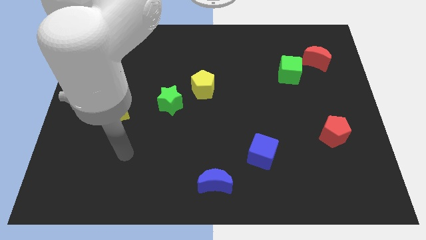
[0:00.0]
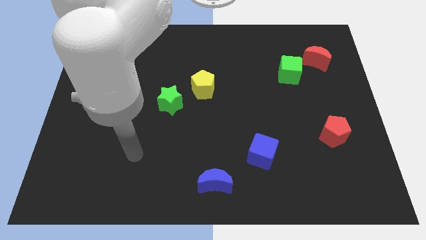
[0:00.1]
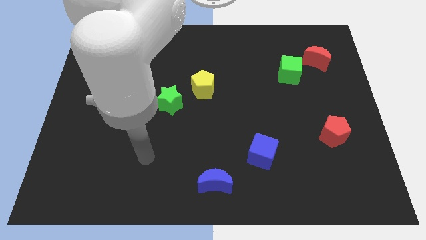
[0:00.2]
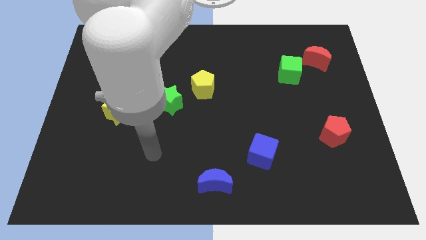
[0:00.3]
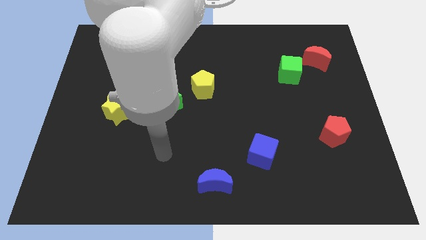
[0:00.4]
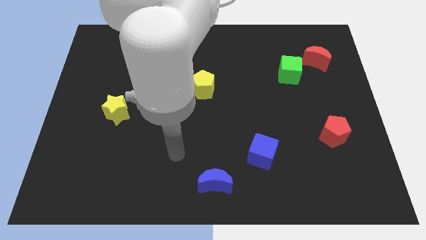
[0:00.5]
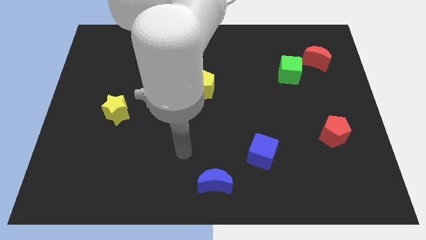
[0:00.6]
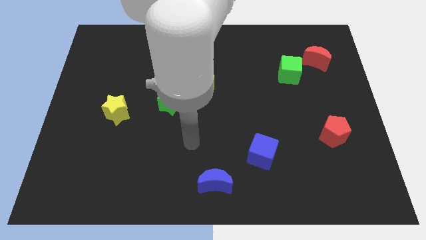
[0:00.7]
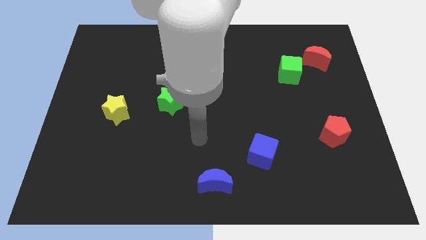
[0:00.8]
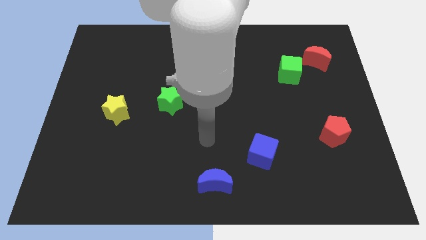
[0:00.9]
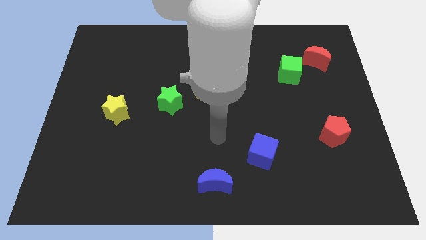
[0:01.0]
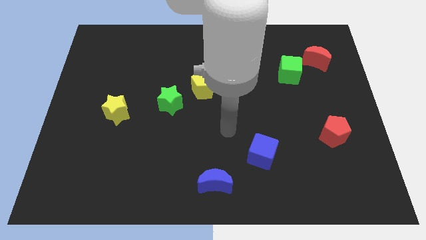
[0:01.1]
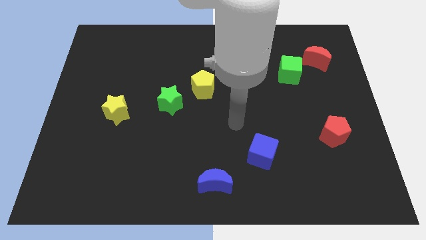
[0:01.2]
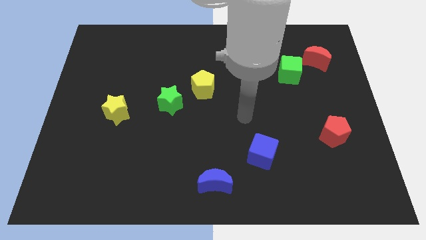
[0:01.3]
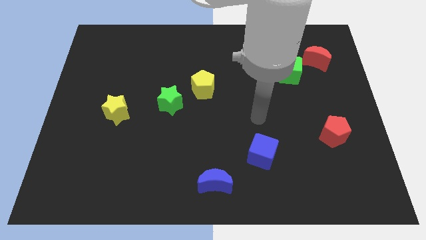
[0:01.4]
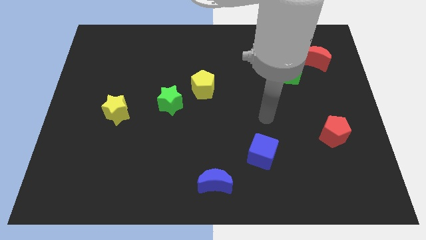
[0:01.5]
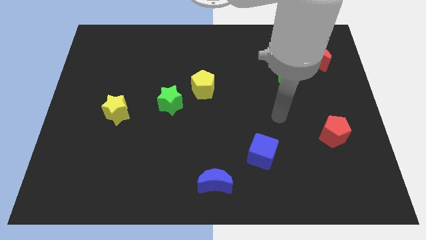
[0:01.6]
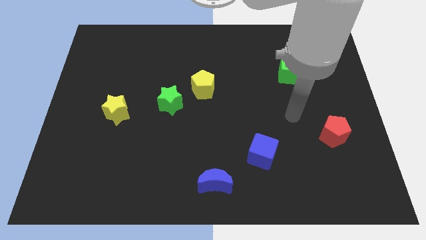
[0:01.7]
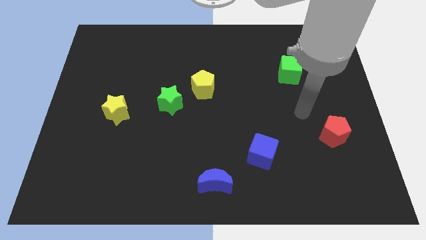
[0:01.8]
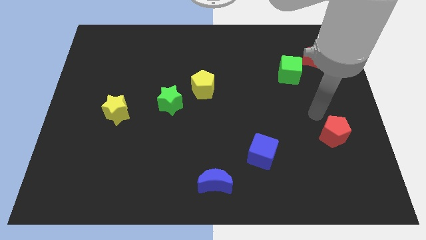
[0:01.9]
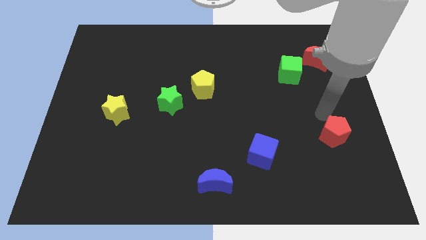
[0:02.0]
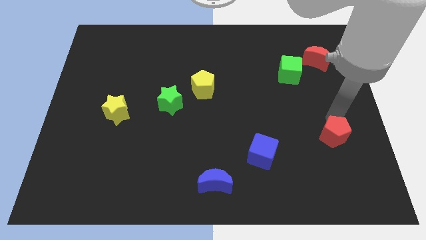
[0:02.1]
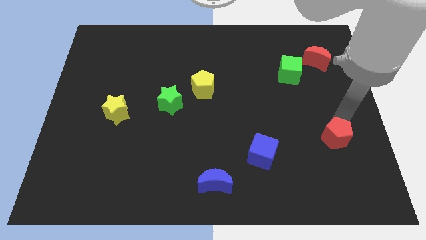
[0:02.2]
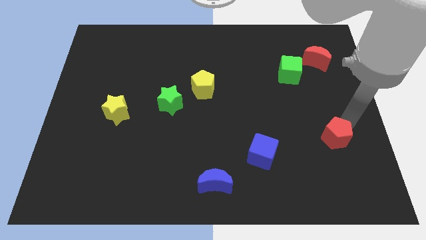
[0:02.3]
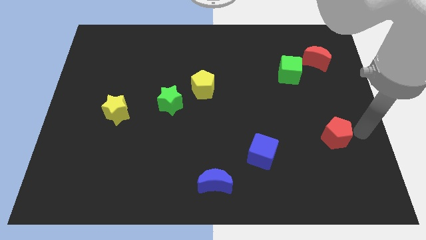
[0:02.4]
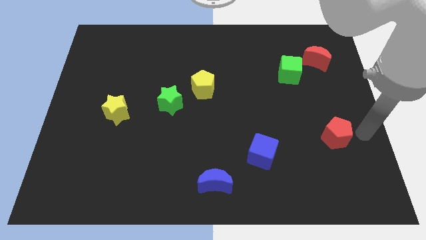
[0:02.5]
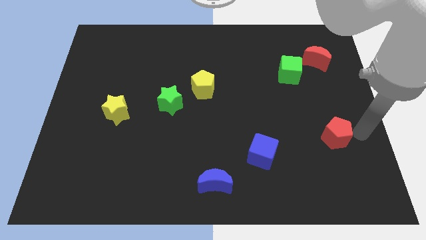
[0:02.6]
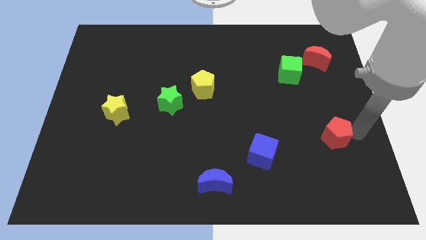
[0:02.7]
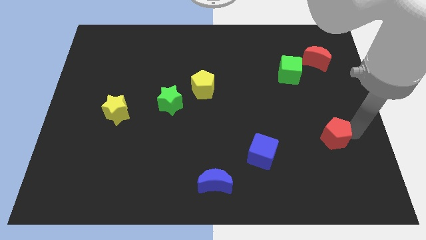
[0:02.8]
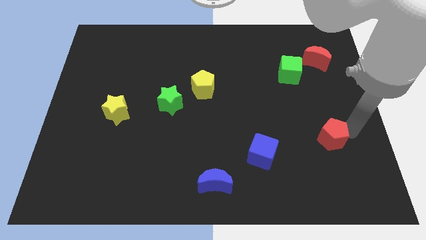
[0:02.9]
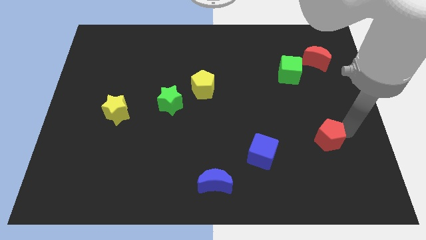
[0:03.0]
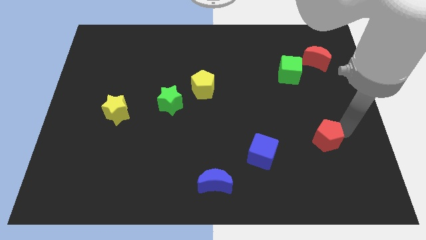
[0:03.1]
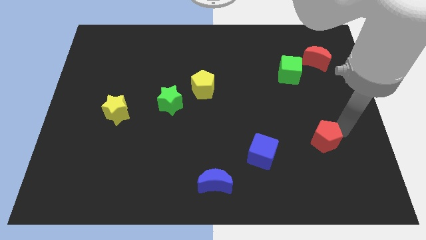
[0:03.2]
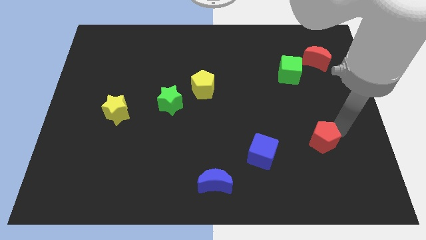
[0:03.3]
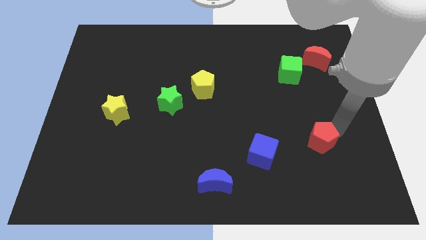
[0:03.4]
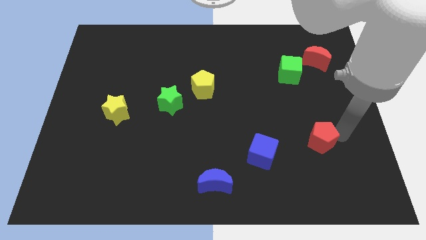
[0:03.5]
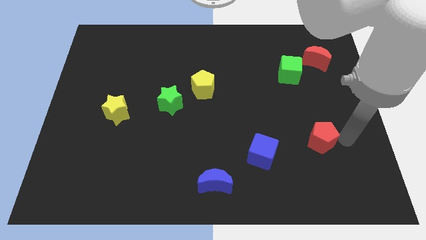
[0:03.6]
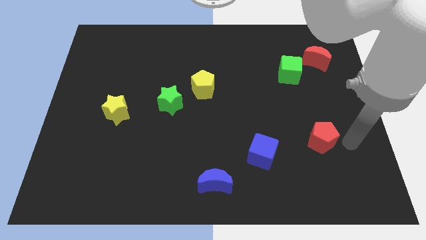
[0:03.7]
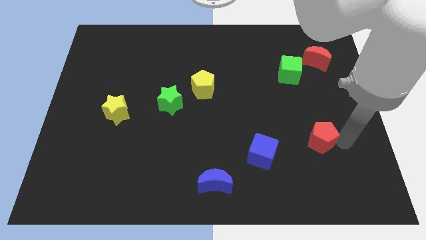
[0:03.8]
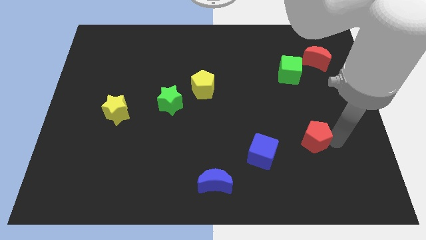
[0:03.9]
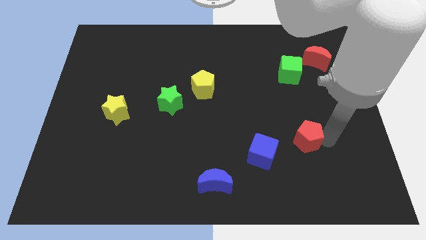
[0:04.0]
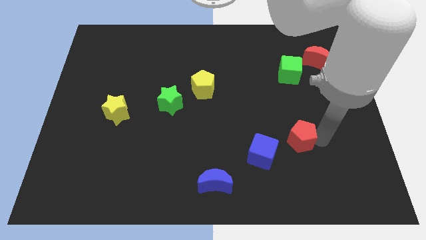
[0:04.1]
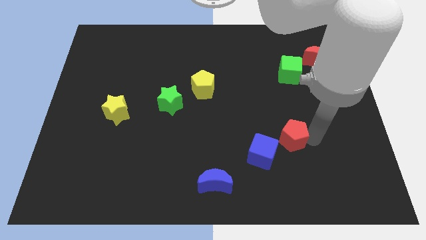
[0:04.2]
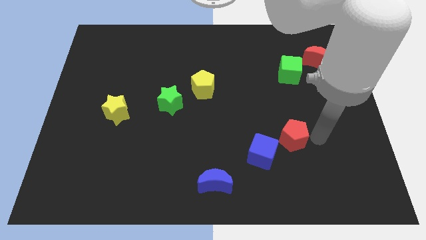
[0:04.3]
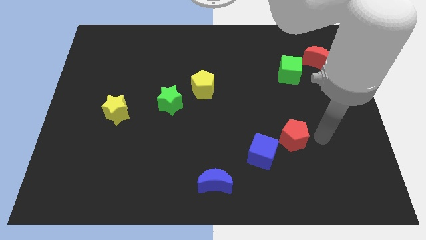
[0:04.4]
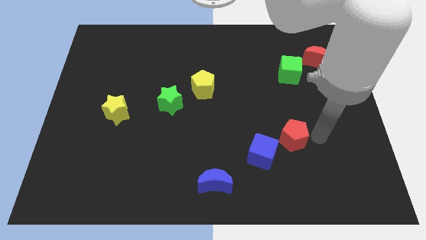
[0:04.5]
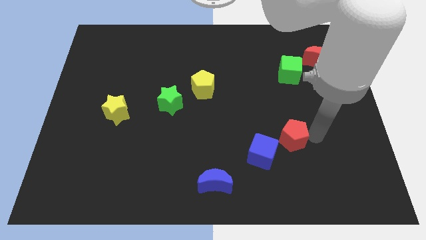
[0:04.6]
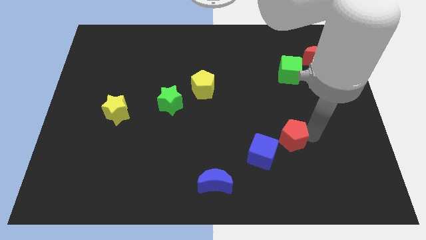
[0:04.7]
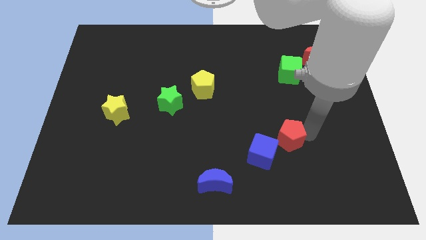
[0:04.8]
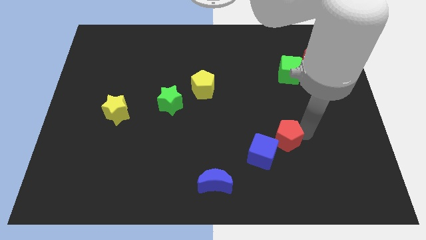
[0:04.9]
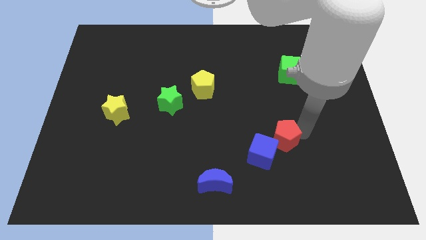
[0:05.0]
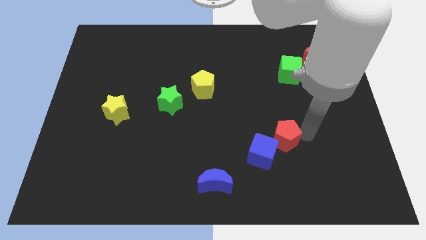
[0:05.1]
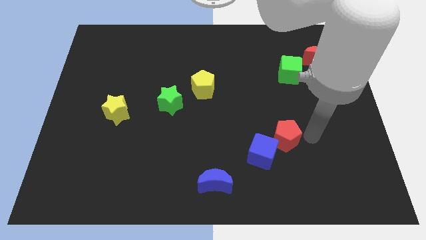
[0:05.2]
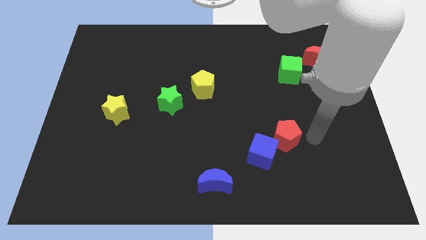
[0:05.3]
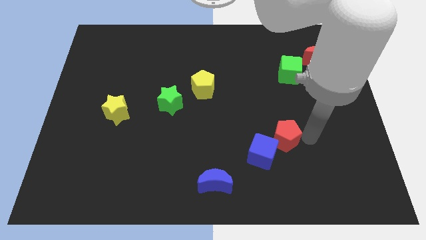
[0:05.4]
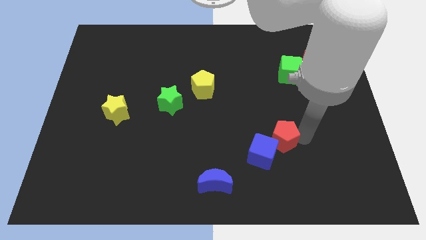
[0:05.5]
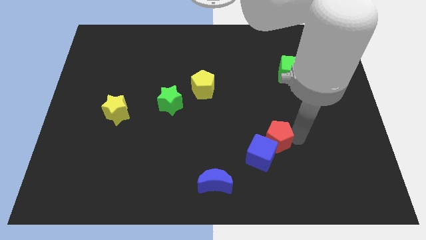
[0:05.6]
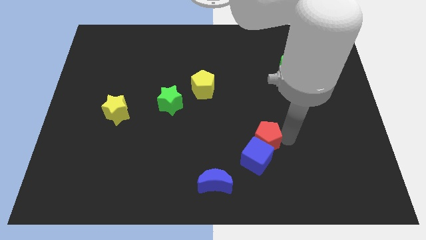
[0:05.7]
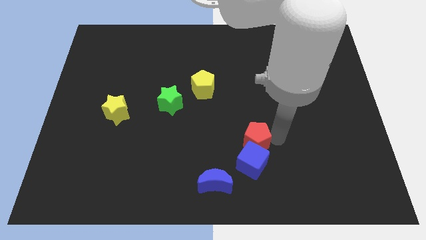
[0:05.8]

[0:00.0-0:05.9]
push the red pentagon to the top left side of the blue cube

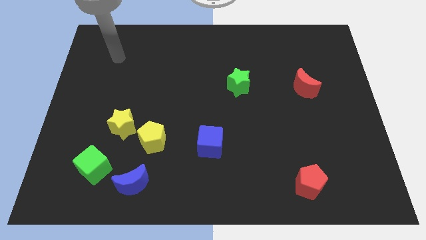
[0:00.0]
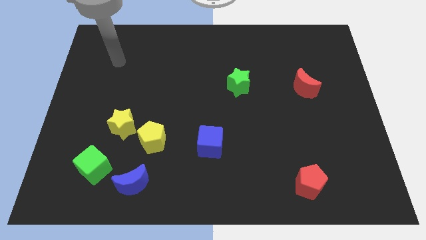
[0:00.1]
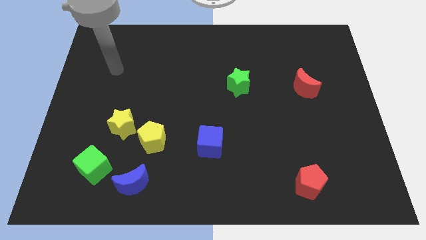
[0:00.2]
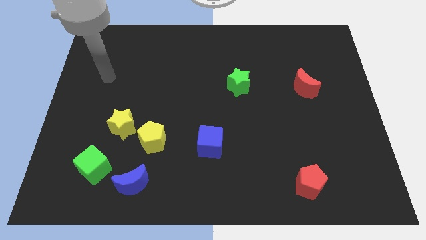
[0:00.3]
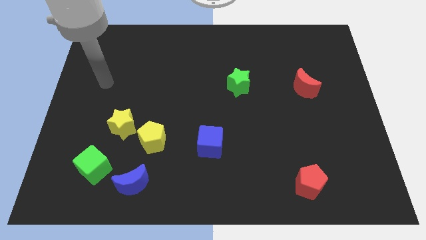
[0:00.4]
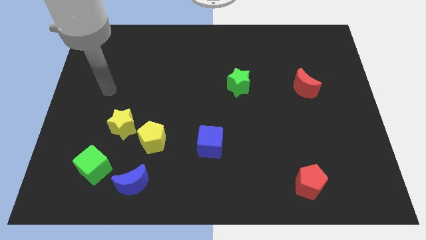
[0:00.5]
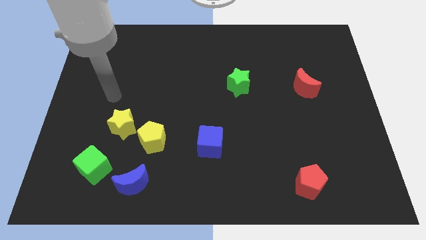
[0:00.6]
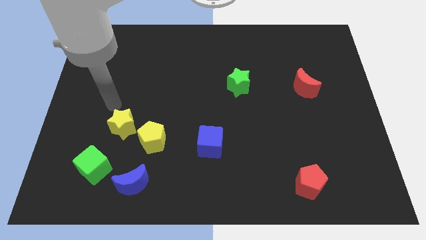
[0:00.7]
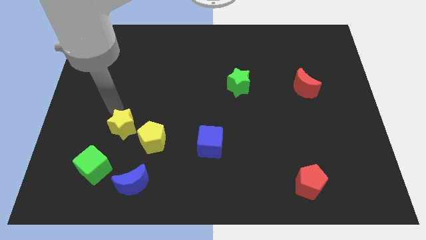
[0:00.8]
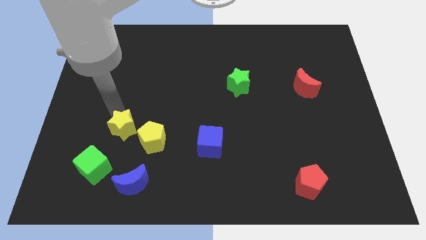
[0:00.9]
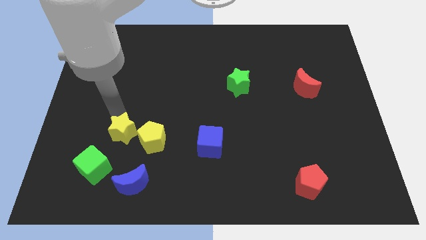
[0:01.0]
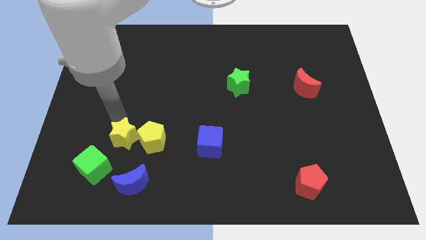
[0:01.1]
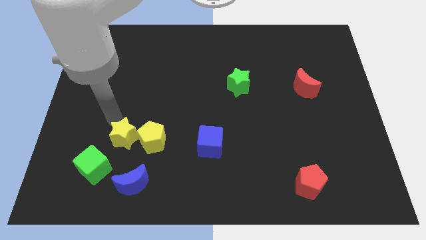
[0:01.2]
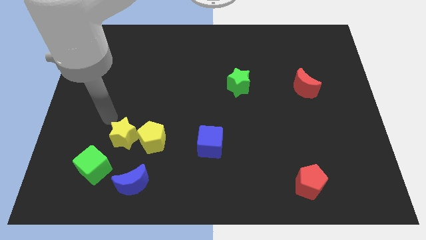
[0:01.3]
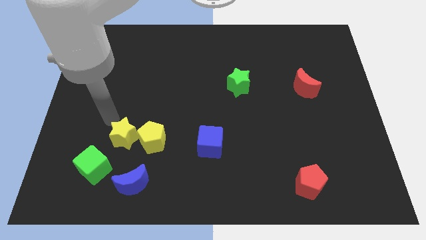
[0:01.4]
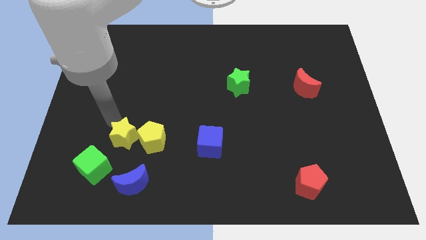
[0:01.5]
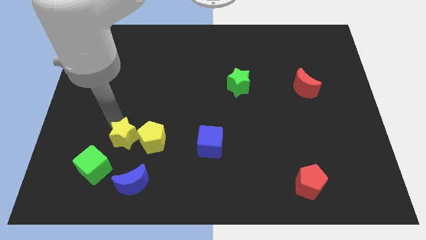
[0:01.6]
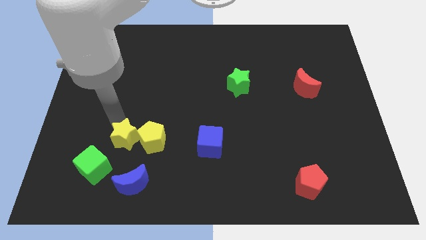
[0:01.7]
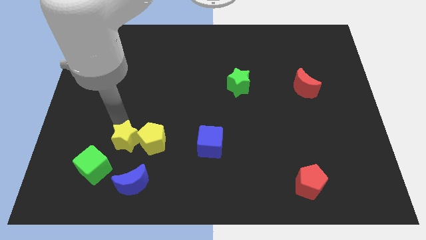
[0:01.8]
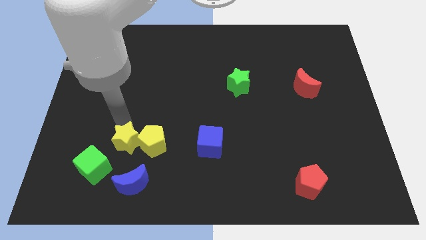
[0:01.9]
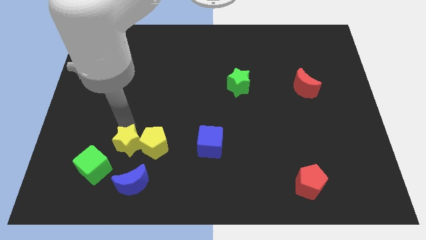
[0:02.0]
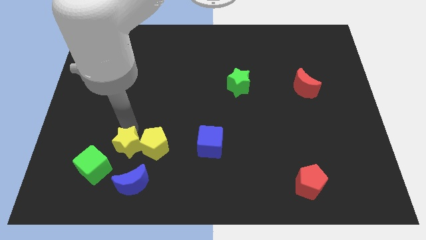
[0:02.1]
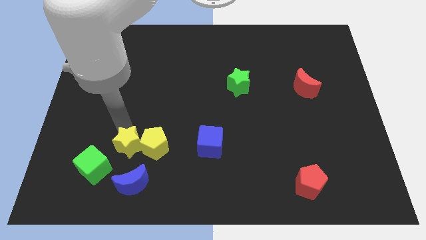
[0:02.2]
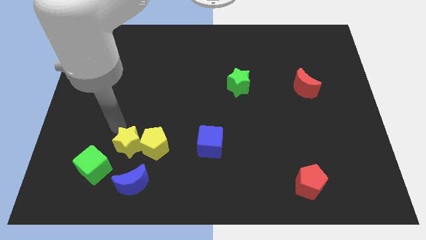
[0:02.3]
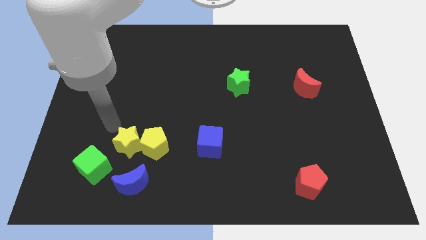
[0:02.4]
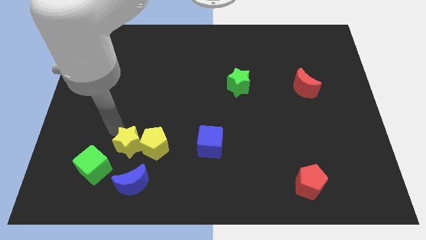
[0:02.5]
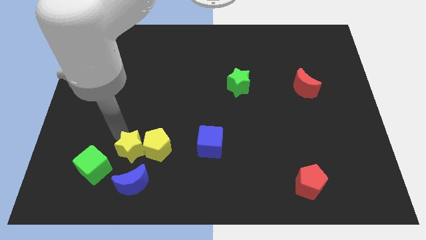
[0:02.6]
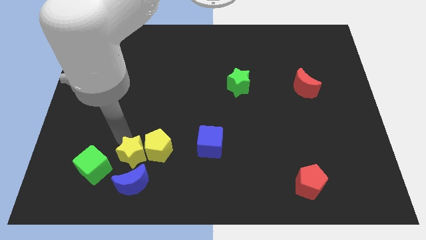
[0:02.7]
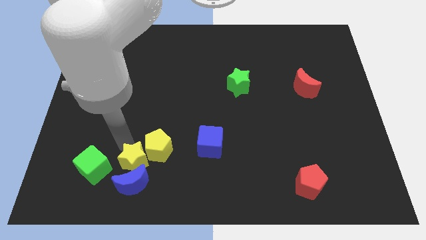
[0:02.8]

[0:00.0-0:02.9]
push the yellow star to the top right side of the blue moon
